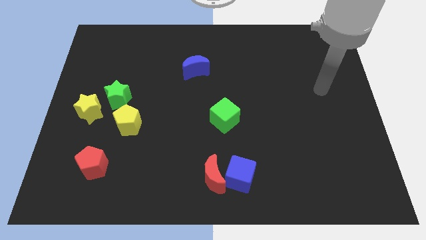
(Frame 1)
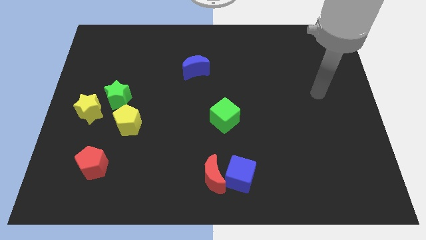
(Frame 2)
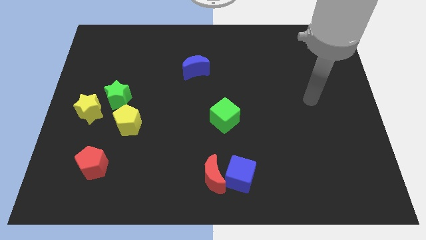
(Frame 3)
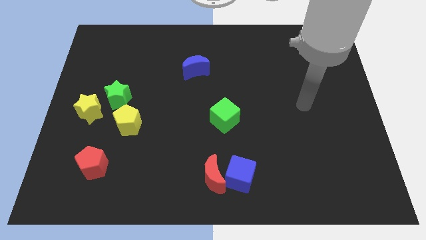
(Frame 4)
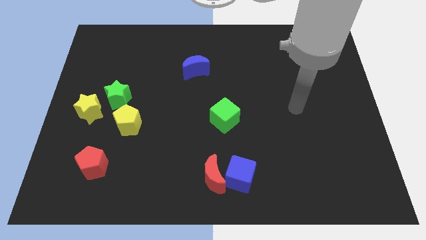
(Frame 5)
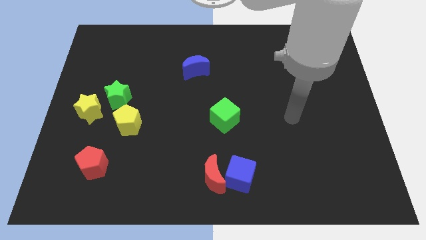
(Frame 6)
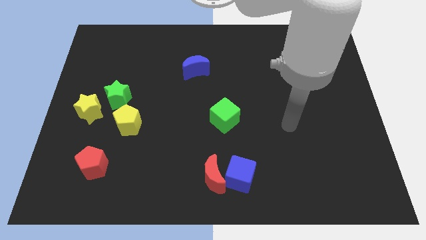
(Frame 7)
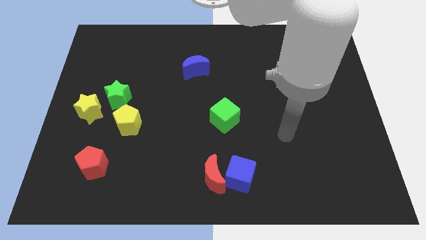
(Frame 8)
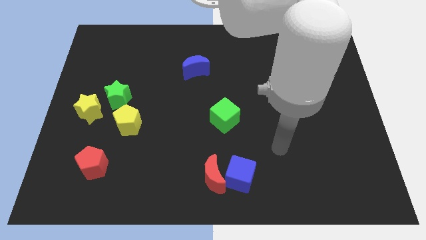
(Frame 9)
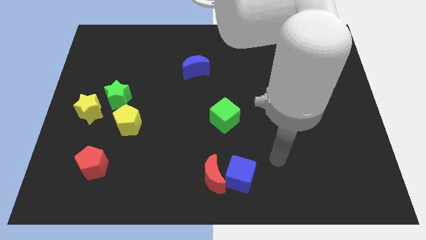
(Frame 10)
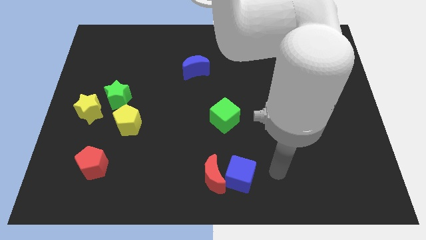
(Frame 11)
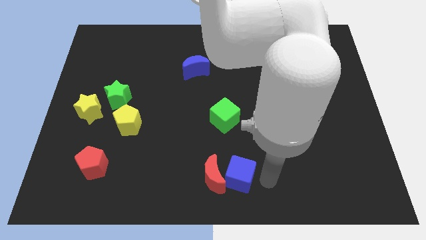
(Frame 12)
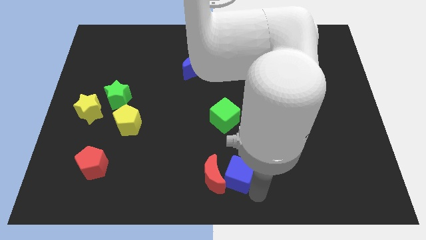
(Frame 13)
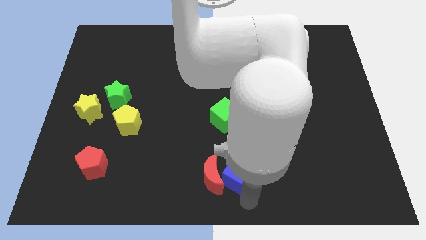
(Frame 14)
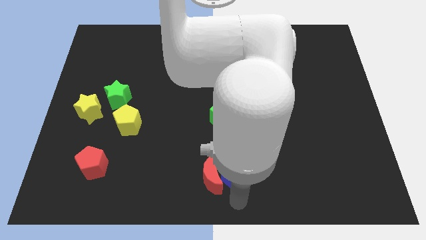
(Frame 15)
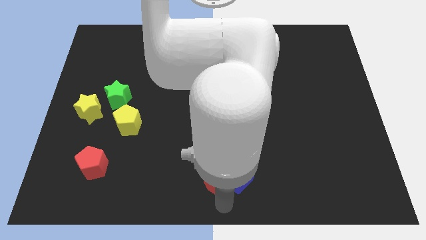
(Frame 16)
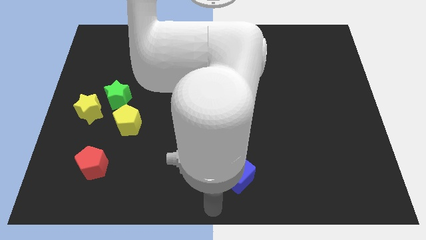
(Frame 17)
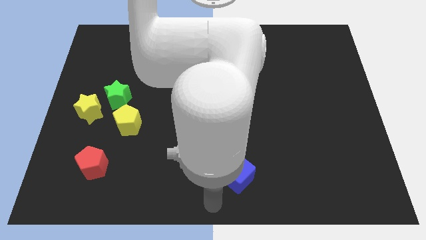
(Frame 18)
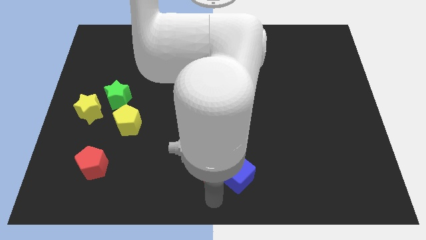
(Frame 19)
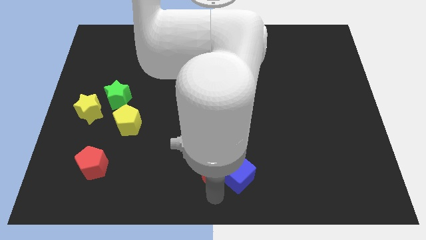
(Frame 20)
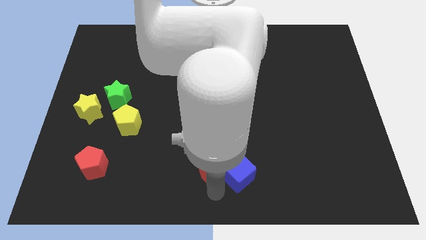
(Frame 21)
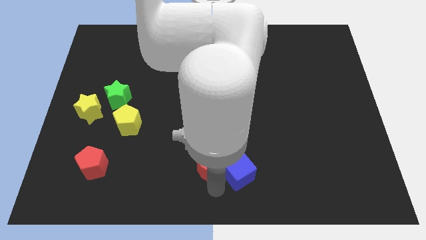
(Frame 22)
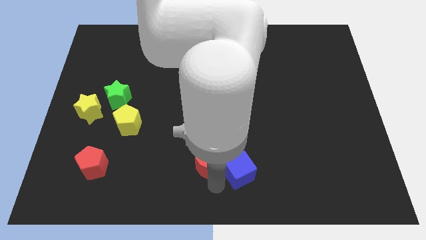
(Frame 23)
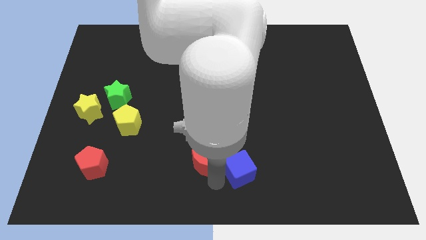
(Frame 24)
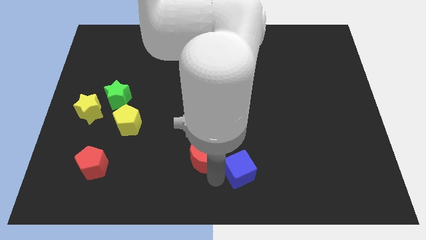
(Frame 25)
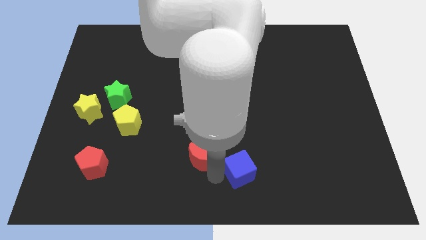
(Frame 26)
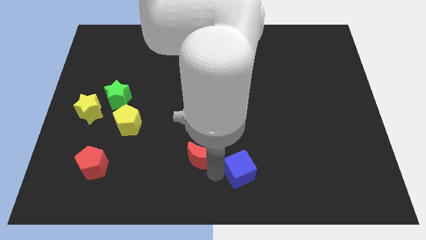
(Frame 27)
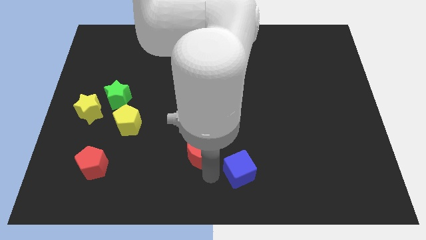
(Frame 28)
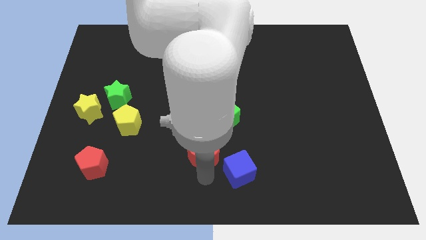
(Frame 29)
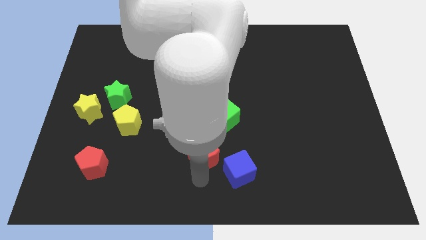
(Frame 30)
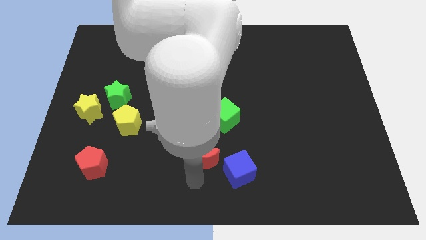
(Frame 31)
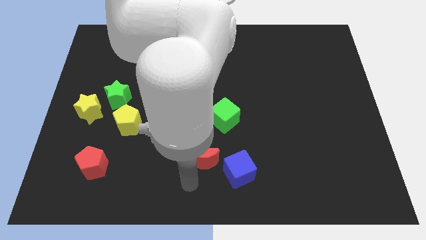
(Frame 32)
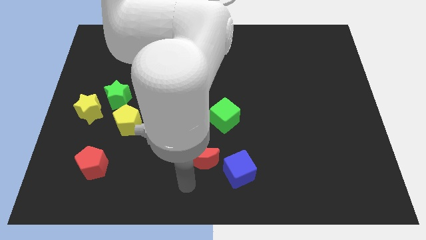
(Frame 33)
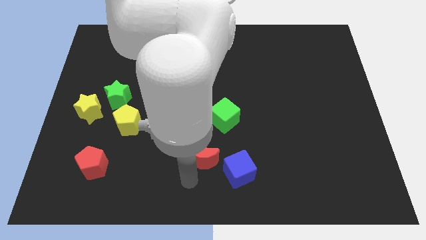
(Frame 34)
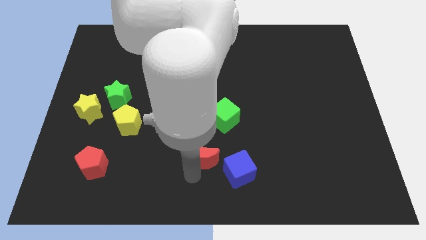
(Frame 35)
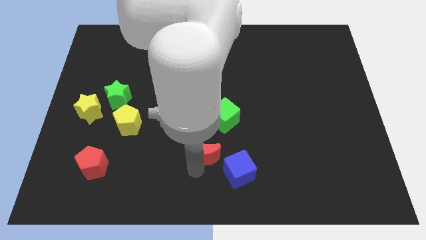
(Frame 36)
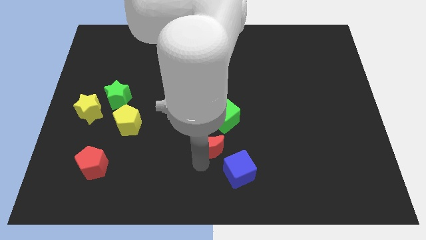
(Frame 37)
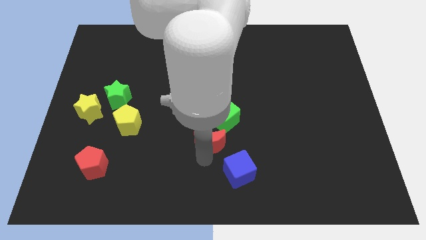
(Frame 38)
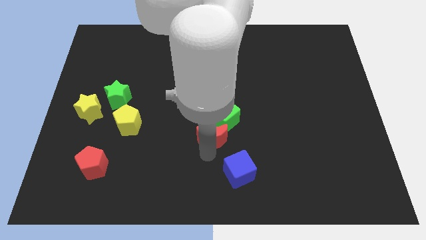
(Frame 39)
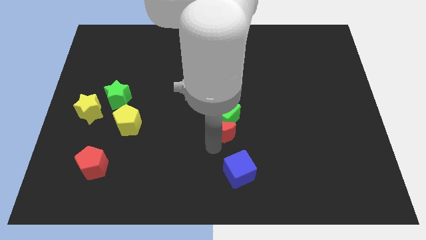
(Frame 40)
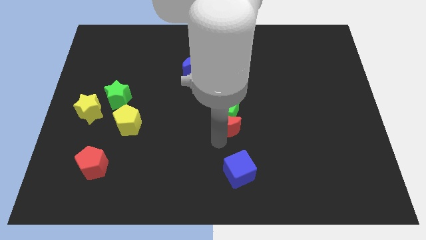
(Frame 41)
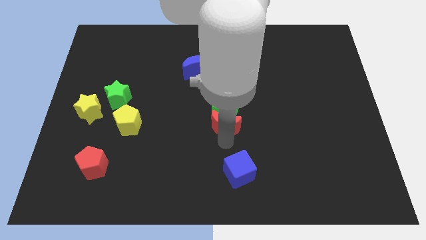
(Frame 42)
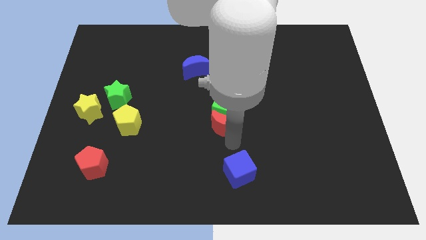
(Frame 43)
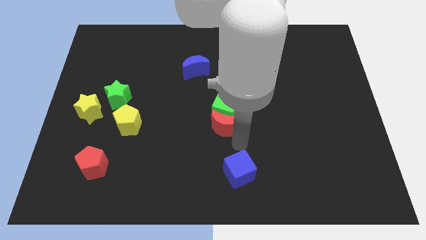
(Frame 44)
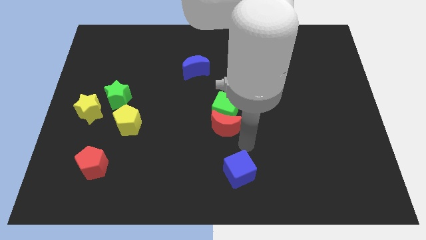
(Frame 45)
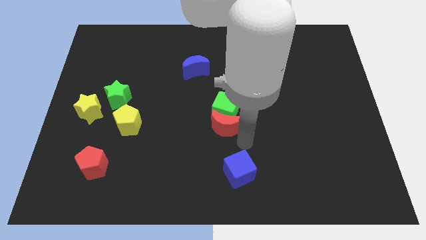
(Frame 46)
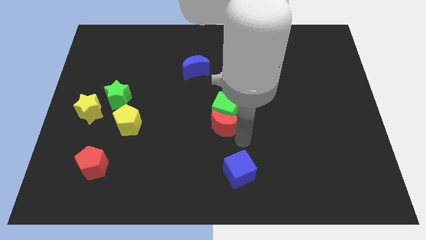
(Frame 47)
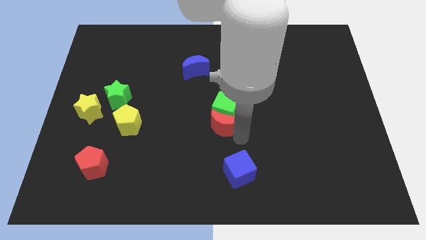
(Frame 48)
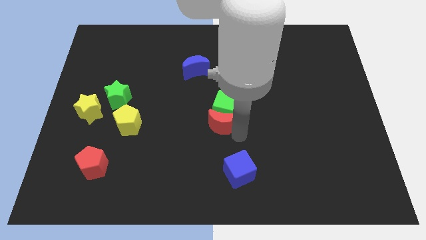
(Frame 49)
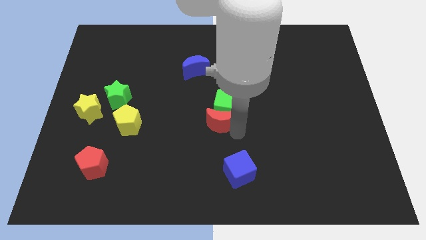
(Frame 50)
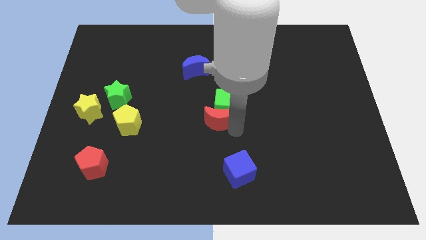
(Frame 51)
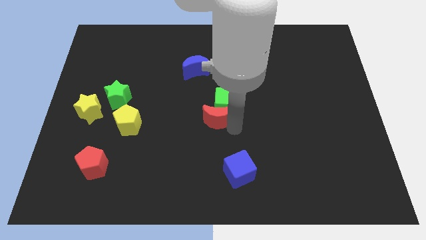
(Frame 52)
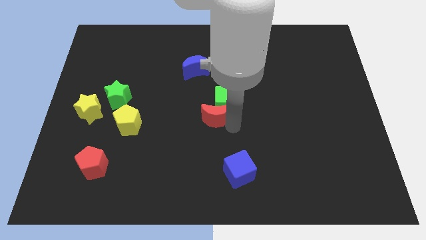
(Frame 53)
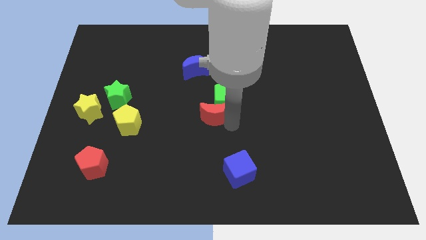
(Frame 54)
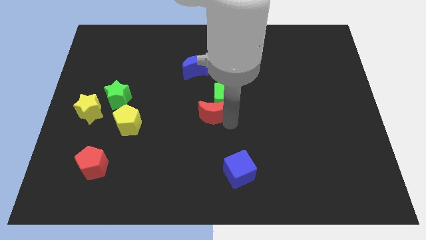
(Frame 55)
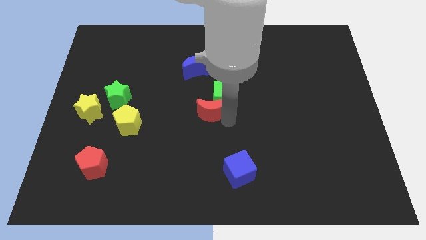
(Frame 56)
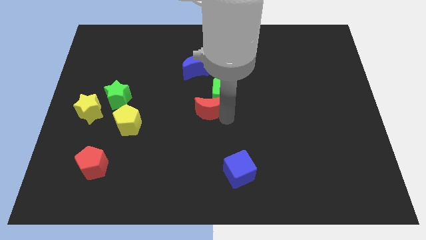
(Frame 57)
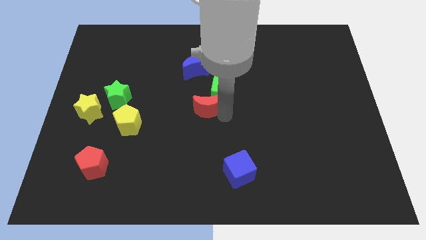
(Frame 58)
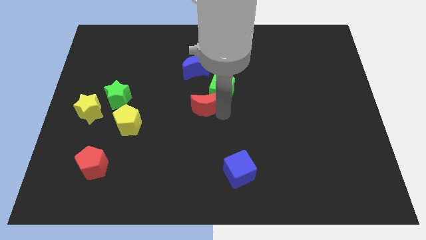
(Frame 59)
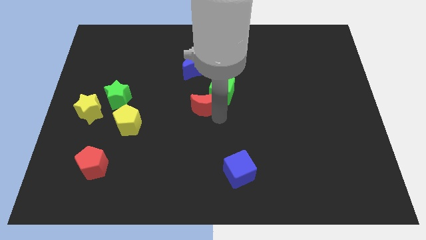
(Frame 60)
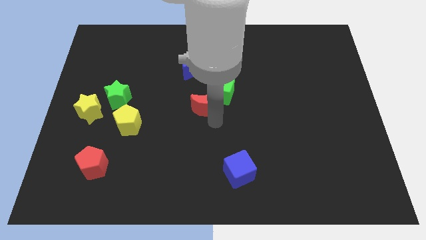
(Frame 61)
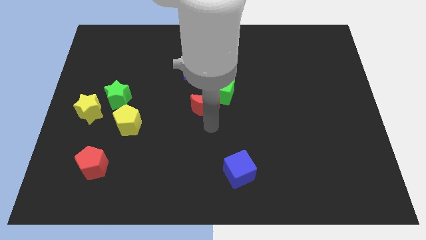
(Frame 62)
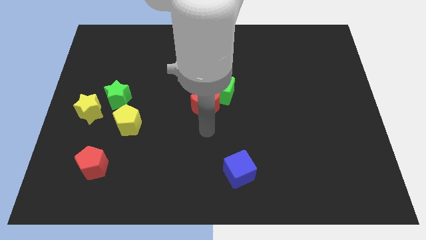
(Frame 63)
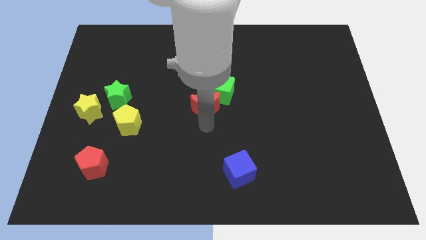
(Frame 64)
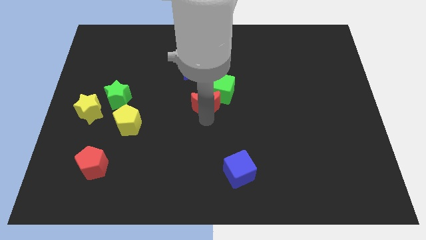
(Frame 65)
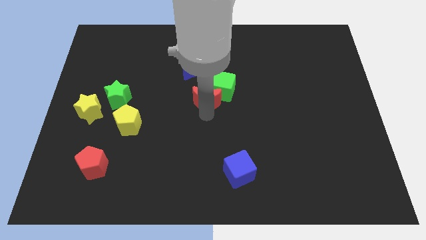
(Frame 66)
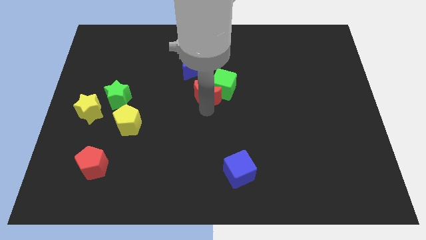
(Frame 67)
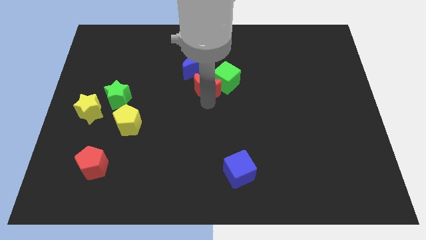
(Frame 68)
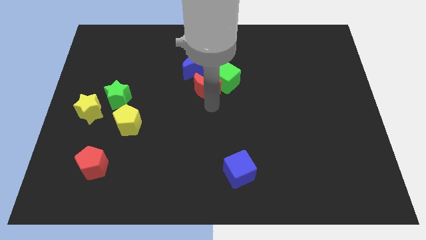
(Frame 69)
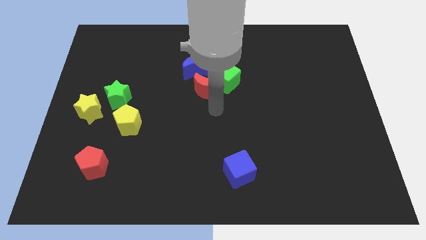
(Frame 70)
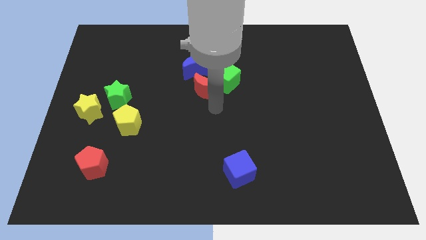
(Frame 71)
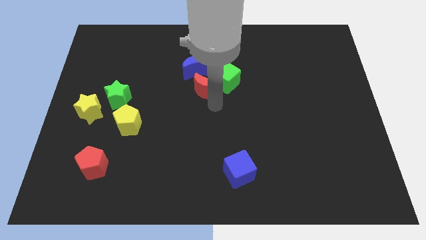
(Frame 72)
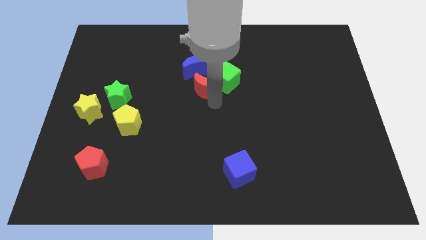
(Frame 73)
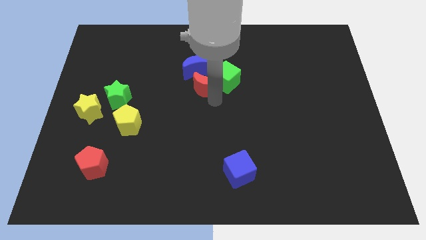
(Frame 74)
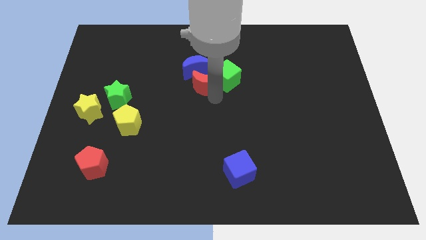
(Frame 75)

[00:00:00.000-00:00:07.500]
slide the red moon next to the blue moon
